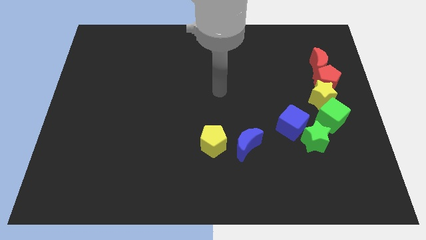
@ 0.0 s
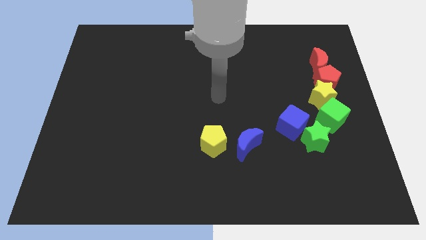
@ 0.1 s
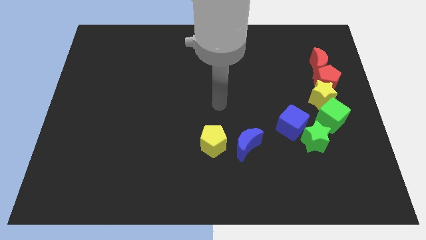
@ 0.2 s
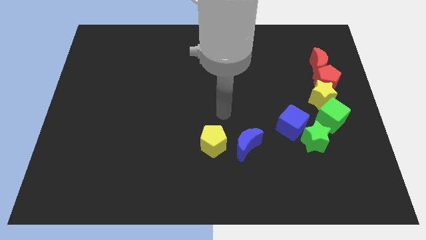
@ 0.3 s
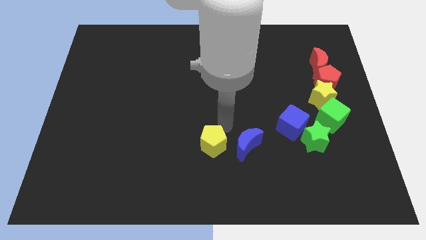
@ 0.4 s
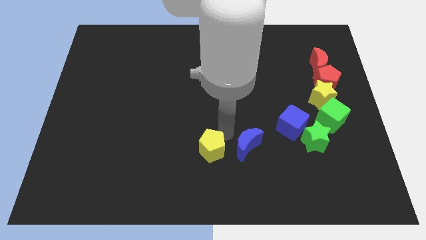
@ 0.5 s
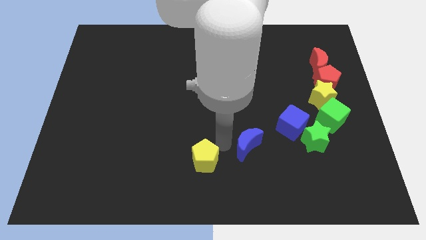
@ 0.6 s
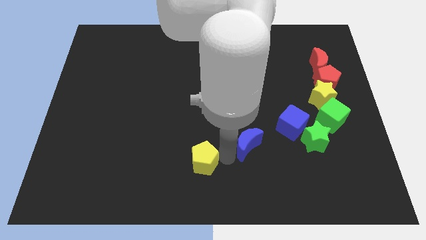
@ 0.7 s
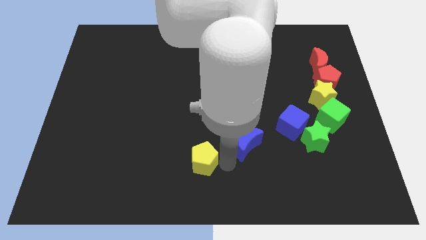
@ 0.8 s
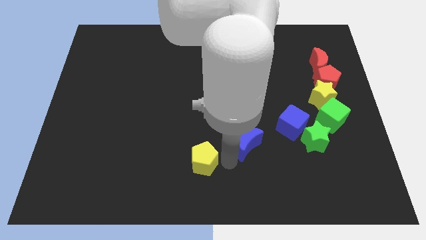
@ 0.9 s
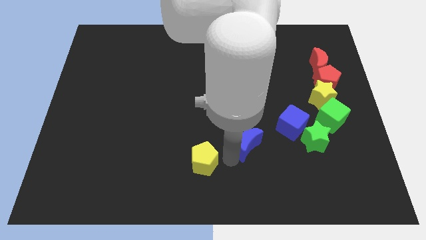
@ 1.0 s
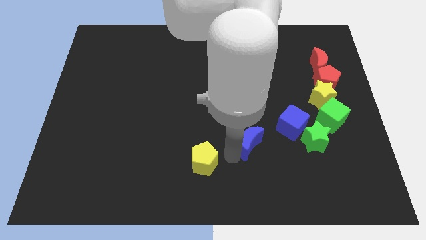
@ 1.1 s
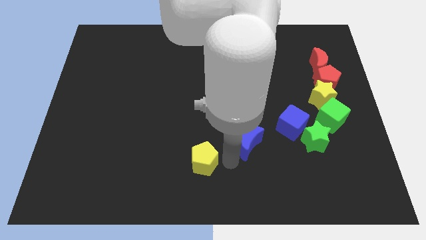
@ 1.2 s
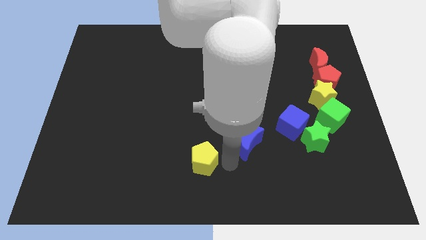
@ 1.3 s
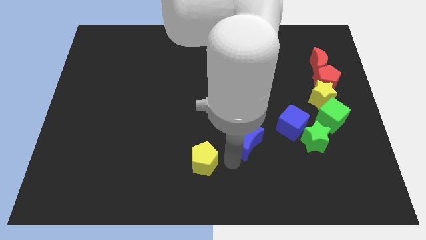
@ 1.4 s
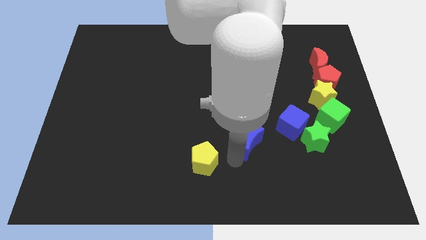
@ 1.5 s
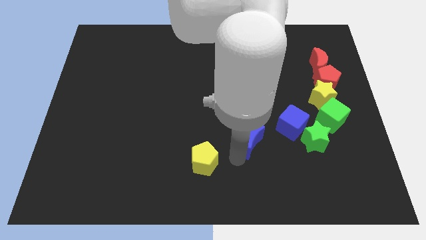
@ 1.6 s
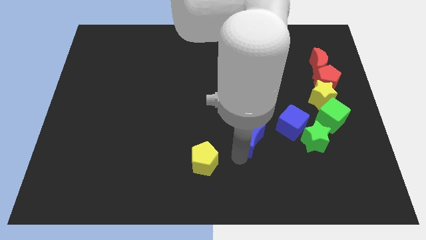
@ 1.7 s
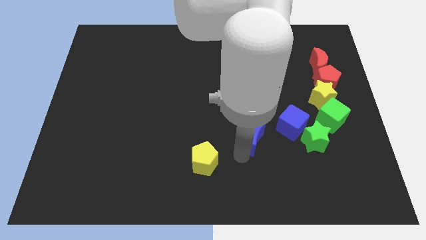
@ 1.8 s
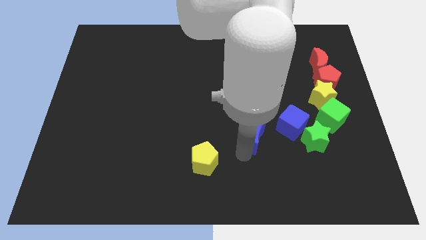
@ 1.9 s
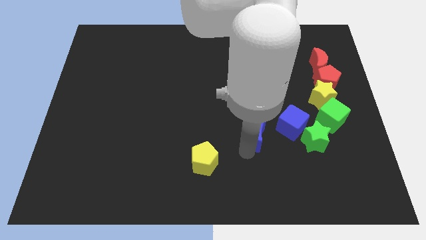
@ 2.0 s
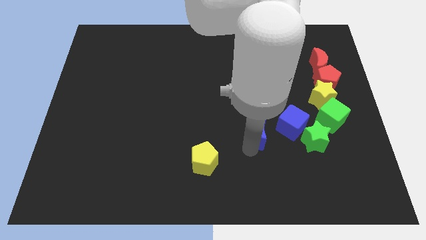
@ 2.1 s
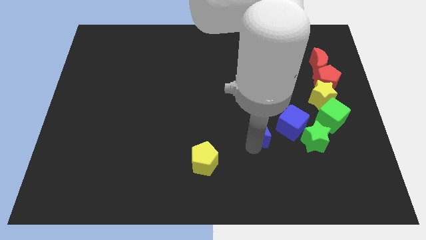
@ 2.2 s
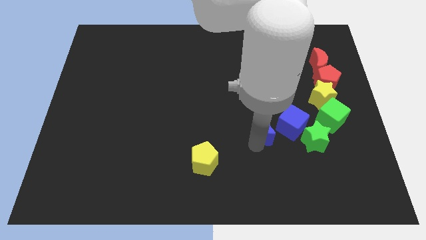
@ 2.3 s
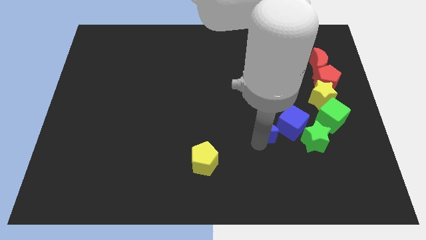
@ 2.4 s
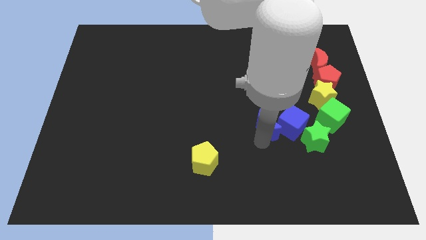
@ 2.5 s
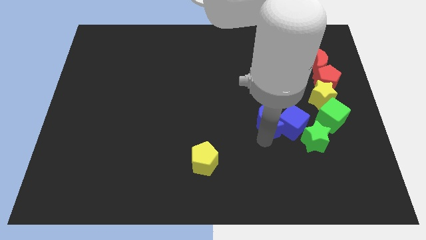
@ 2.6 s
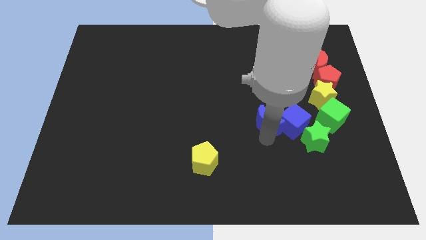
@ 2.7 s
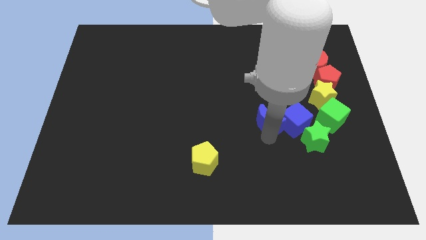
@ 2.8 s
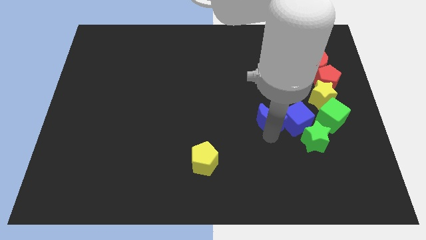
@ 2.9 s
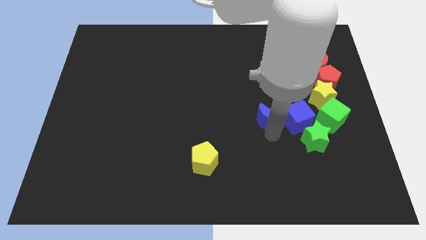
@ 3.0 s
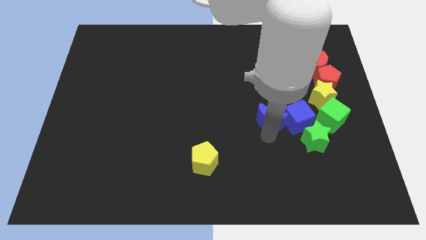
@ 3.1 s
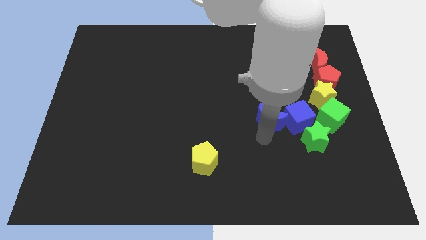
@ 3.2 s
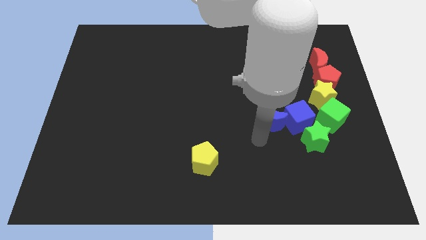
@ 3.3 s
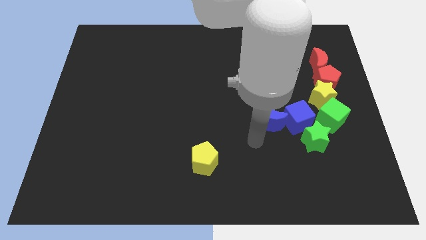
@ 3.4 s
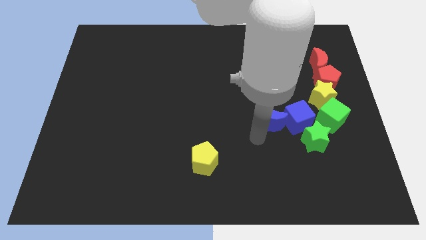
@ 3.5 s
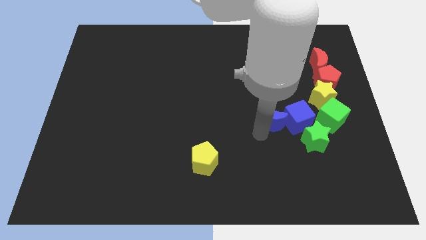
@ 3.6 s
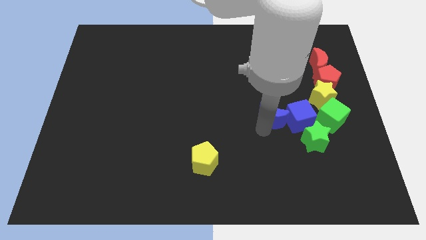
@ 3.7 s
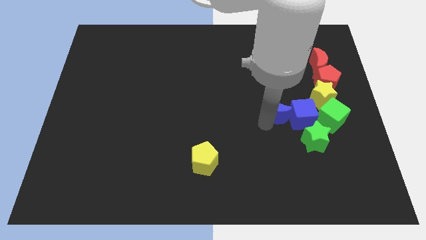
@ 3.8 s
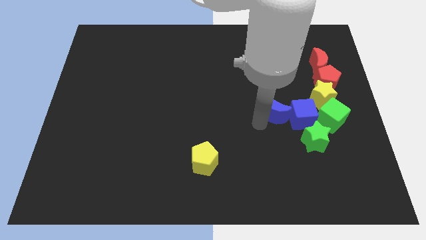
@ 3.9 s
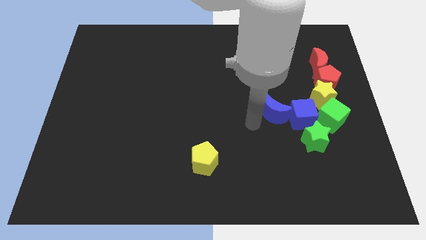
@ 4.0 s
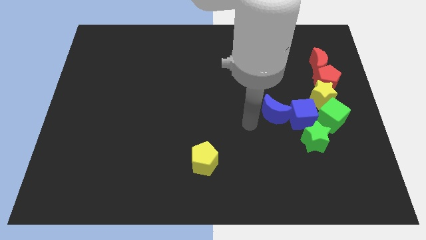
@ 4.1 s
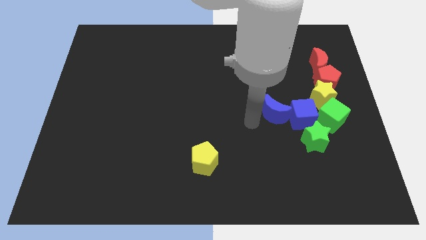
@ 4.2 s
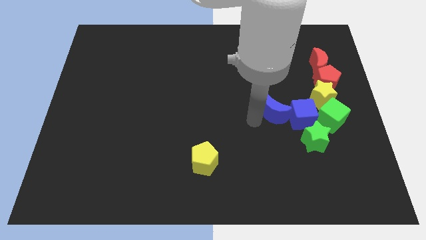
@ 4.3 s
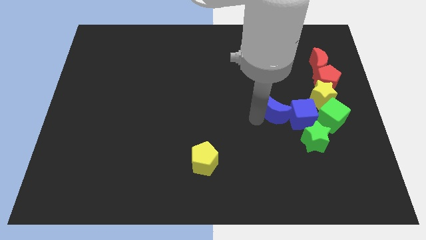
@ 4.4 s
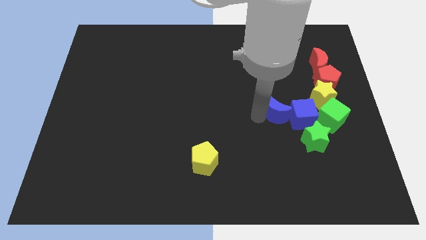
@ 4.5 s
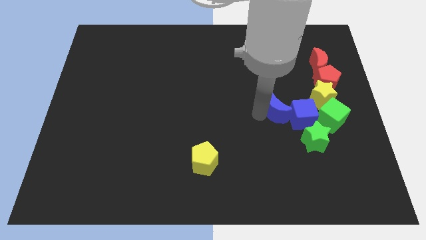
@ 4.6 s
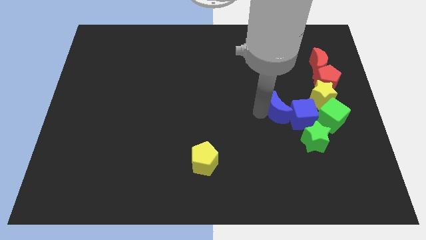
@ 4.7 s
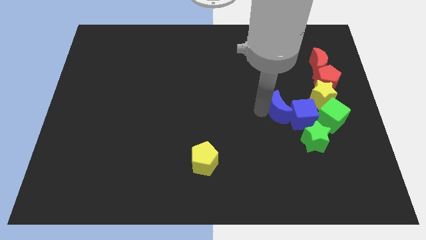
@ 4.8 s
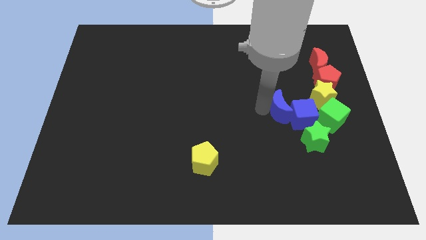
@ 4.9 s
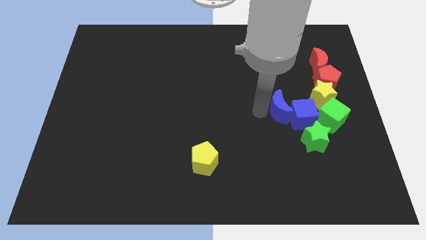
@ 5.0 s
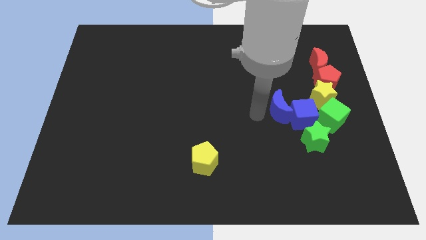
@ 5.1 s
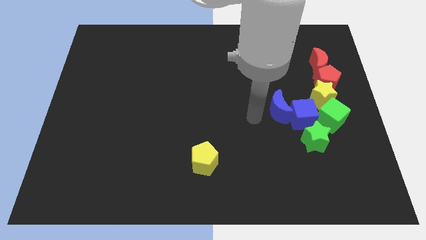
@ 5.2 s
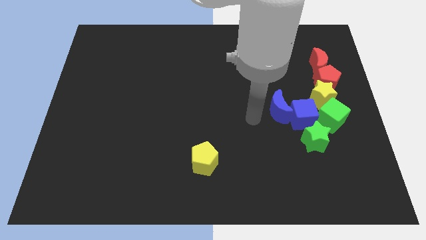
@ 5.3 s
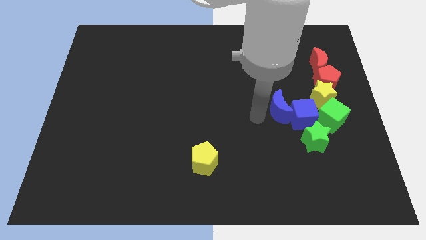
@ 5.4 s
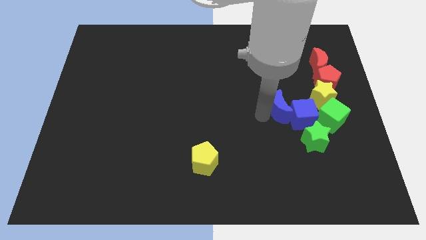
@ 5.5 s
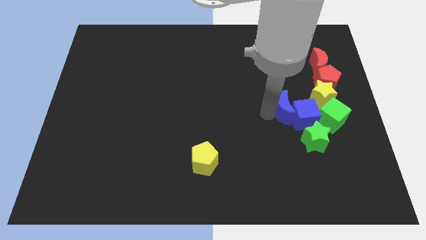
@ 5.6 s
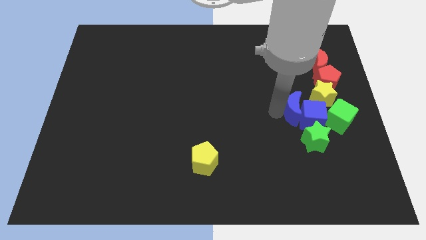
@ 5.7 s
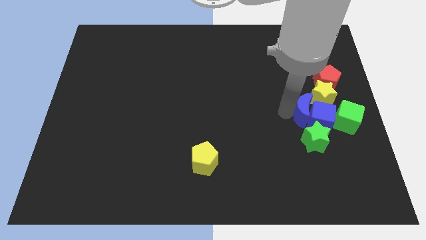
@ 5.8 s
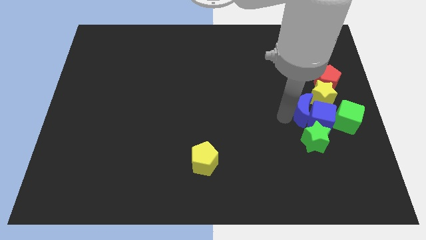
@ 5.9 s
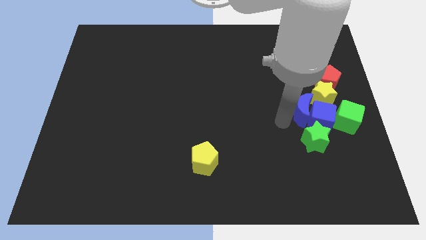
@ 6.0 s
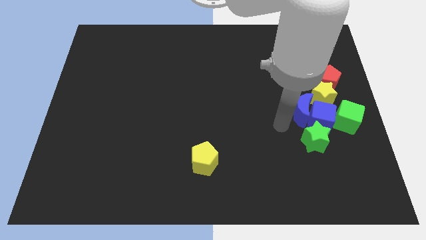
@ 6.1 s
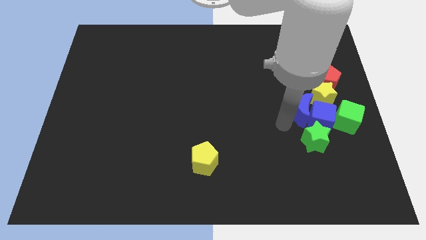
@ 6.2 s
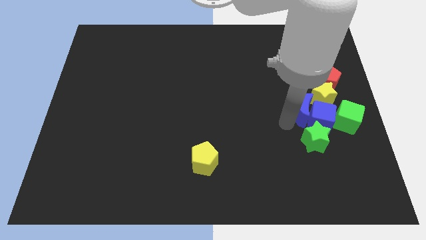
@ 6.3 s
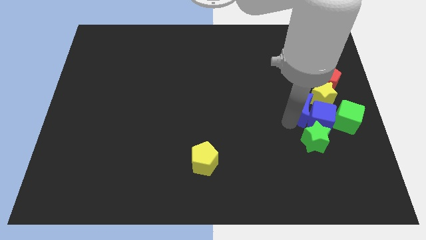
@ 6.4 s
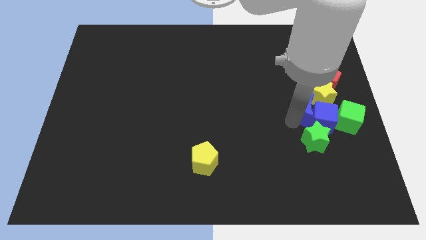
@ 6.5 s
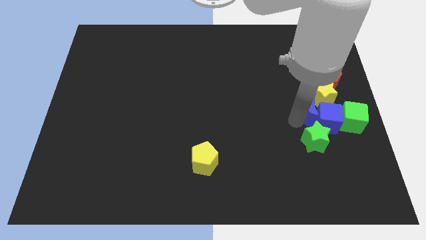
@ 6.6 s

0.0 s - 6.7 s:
slide the blue moon close to the yellow star

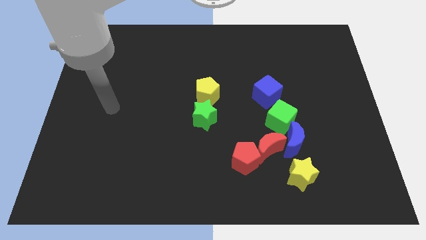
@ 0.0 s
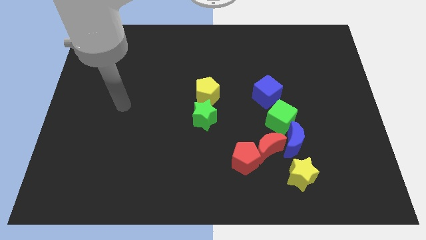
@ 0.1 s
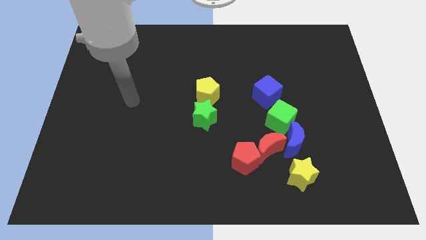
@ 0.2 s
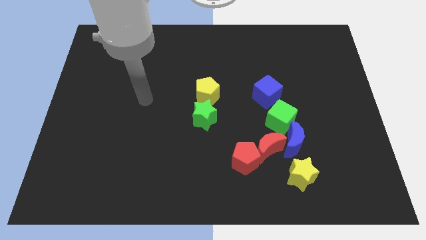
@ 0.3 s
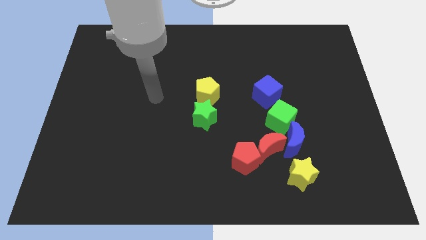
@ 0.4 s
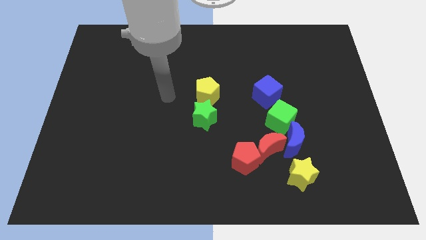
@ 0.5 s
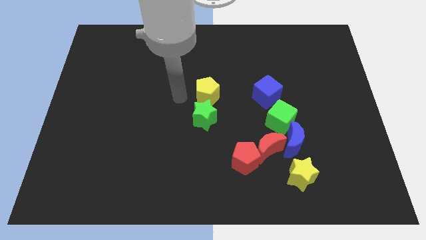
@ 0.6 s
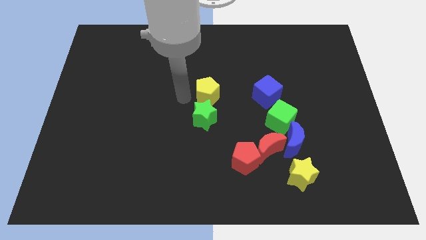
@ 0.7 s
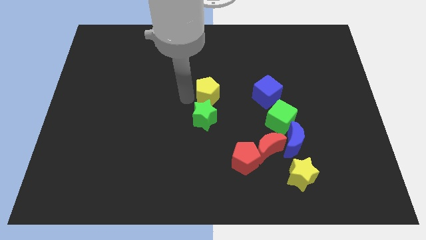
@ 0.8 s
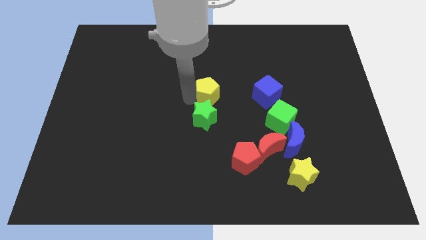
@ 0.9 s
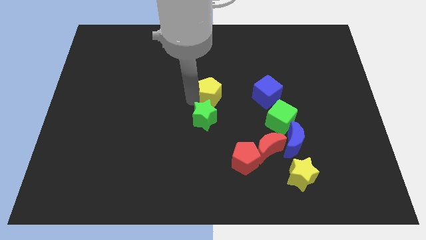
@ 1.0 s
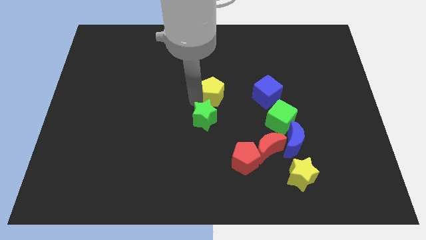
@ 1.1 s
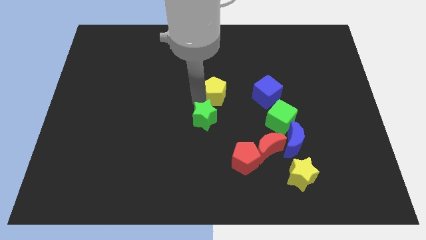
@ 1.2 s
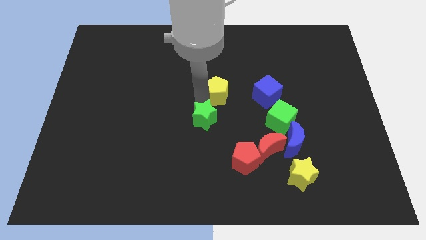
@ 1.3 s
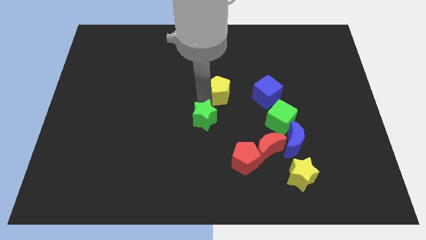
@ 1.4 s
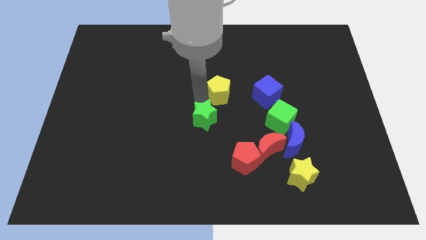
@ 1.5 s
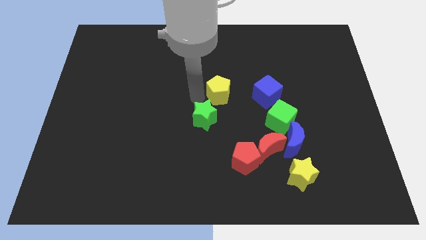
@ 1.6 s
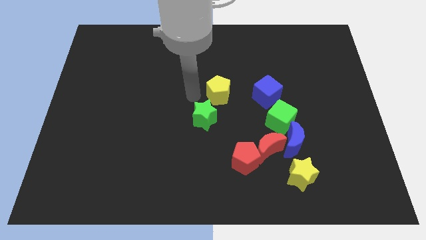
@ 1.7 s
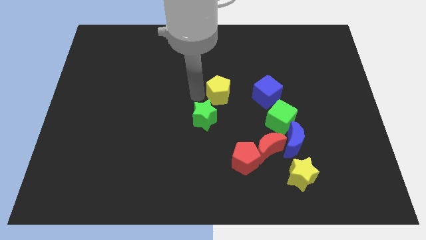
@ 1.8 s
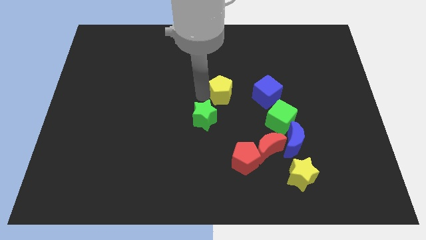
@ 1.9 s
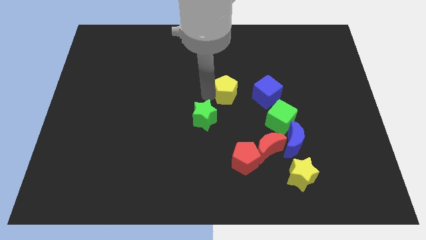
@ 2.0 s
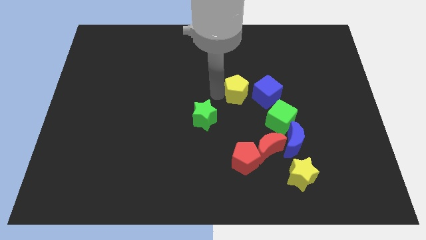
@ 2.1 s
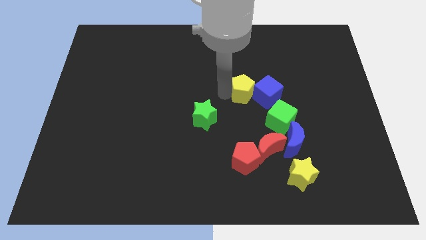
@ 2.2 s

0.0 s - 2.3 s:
slide the yellow pentagon close to the blue cube
